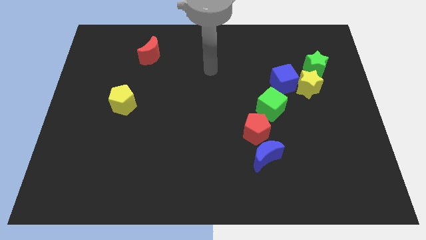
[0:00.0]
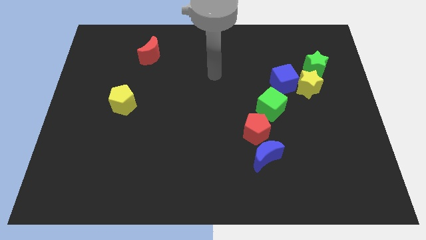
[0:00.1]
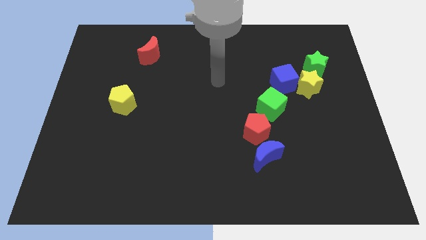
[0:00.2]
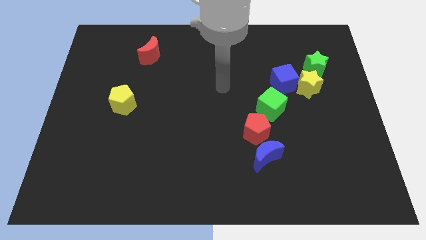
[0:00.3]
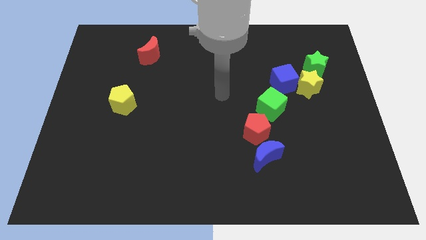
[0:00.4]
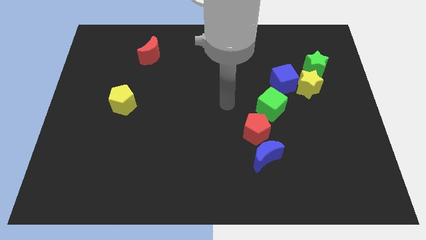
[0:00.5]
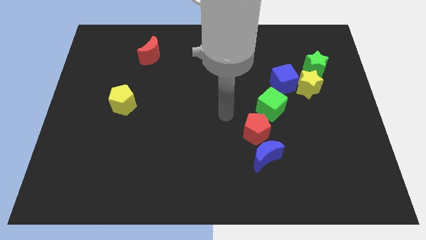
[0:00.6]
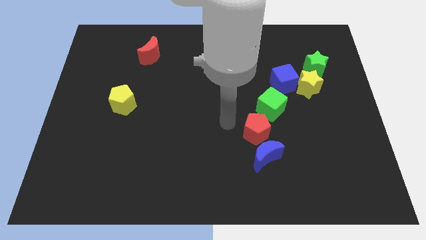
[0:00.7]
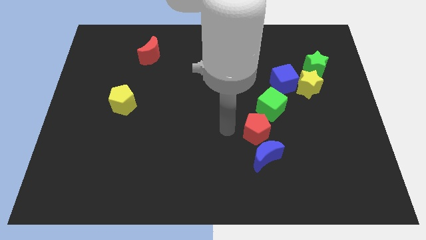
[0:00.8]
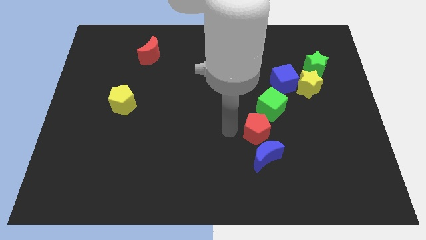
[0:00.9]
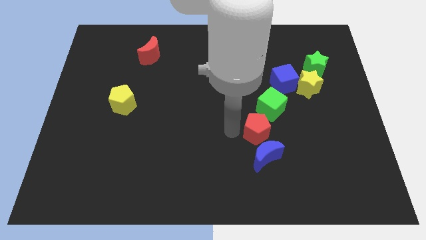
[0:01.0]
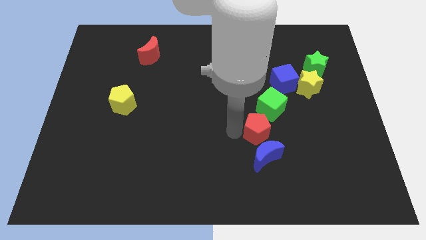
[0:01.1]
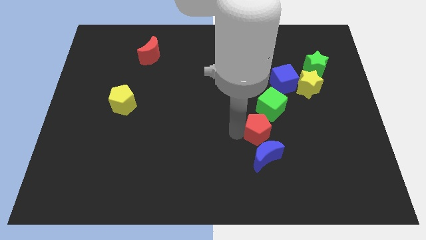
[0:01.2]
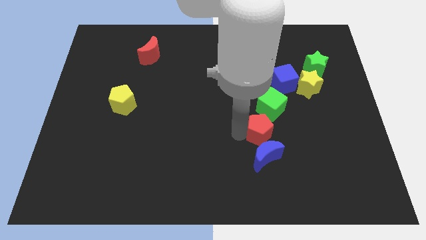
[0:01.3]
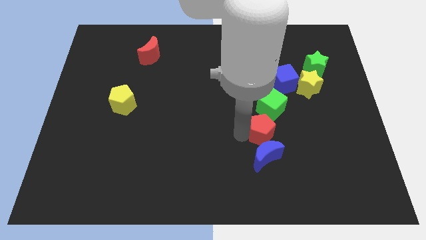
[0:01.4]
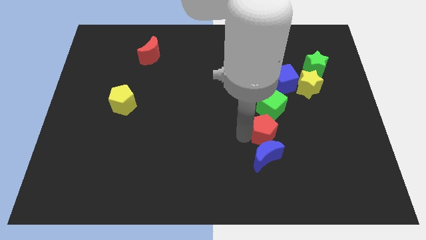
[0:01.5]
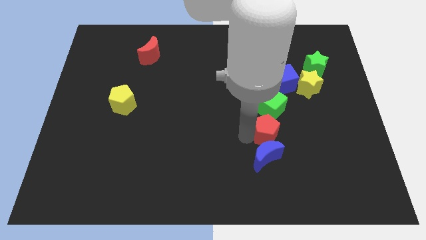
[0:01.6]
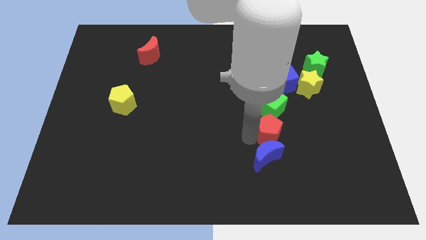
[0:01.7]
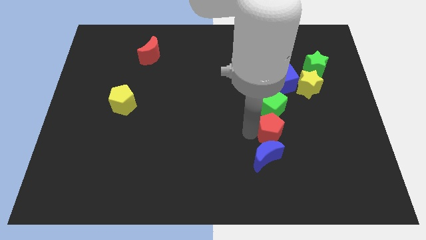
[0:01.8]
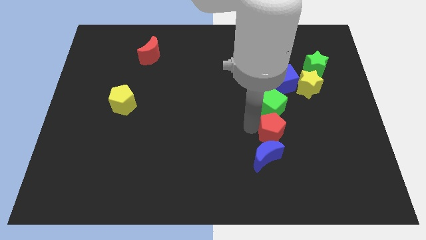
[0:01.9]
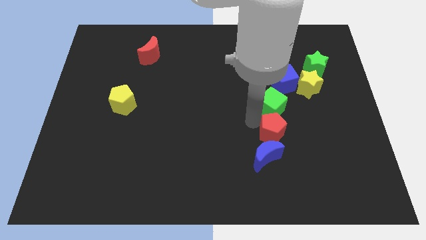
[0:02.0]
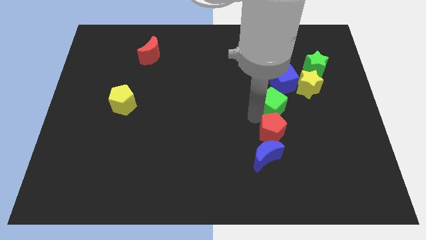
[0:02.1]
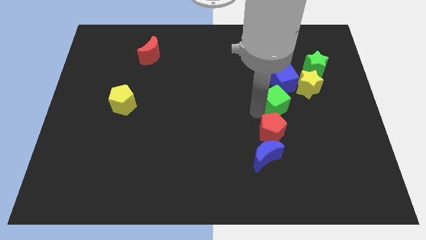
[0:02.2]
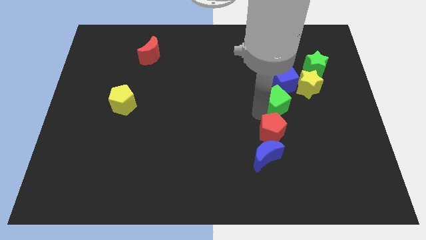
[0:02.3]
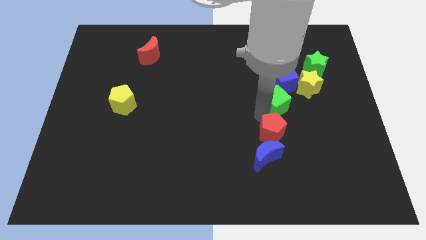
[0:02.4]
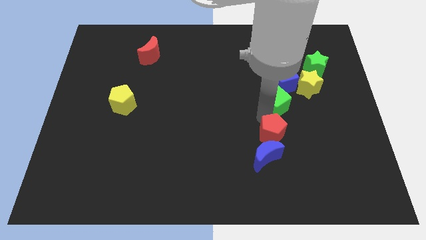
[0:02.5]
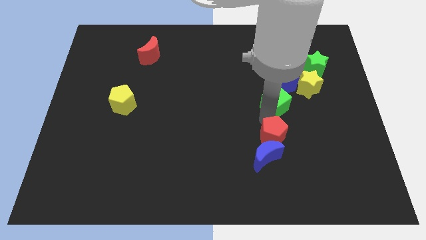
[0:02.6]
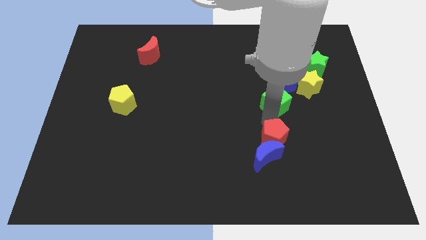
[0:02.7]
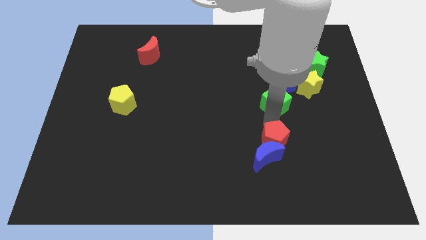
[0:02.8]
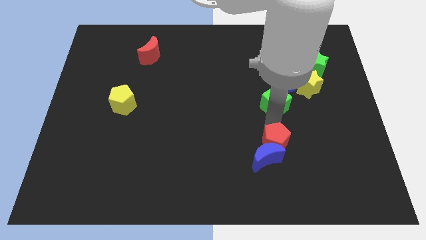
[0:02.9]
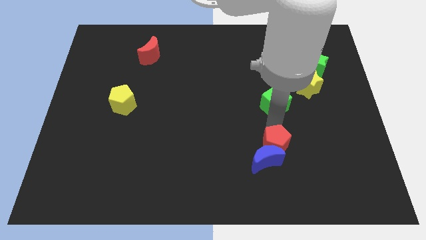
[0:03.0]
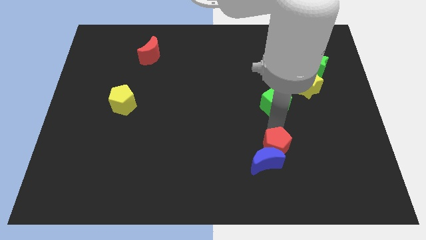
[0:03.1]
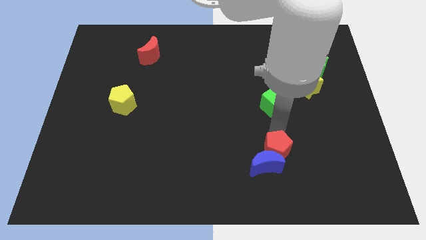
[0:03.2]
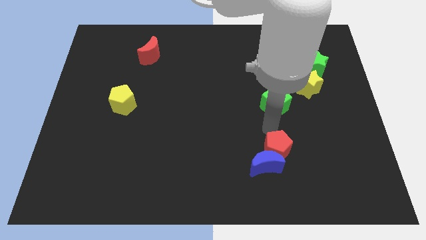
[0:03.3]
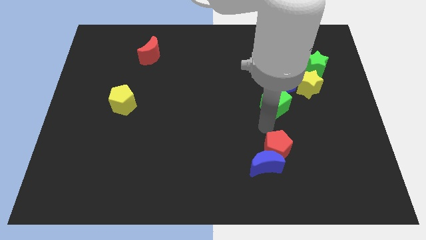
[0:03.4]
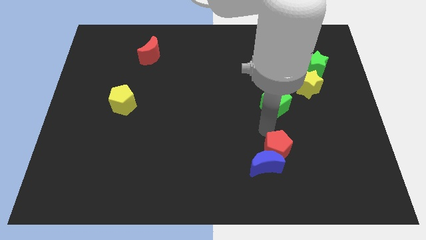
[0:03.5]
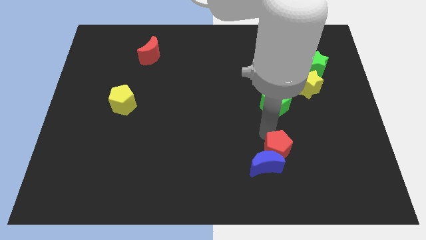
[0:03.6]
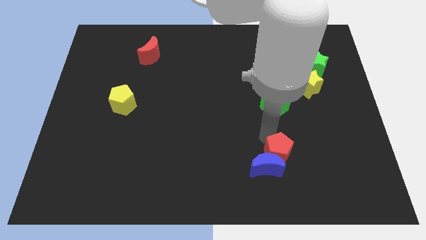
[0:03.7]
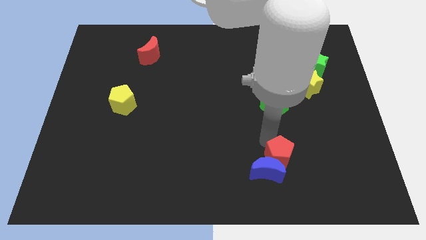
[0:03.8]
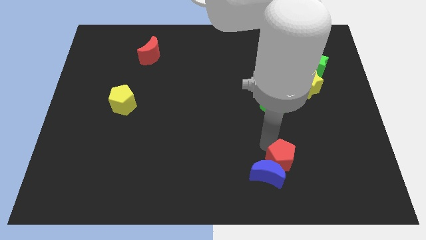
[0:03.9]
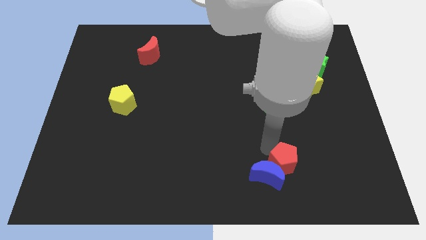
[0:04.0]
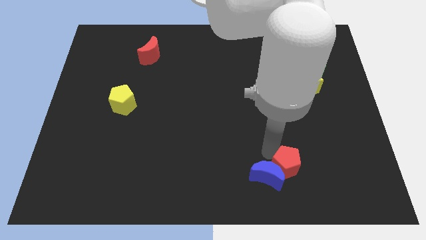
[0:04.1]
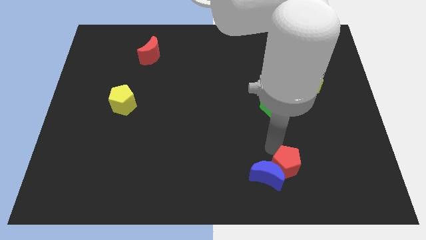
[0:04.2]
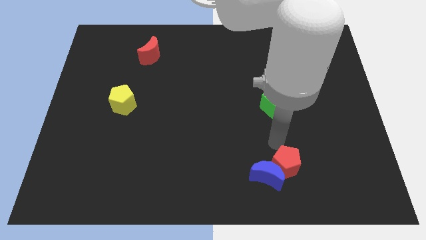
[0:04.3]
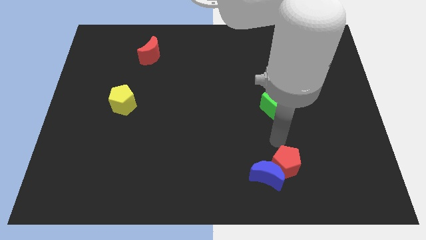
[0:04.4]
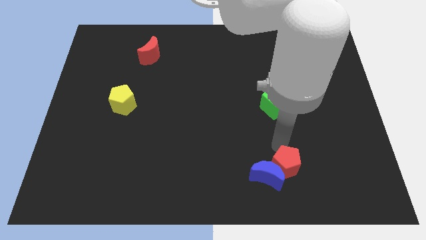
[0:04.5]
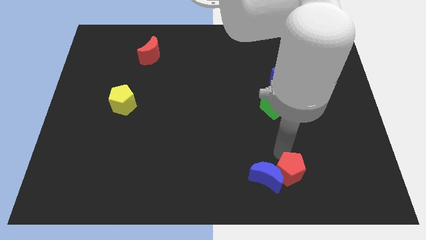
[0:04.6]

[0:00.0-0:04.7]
push the red pentagon diagonally down and to the right of the blue moon

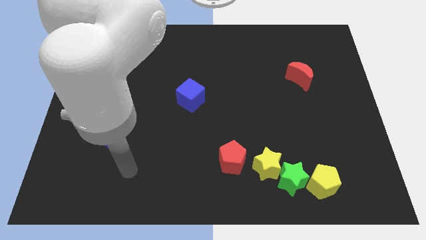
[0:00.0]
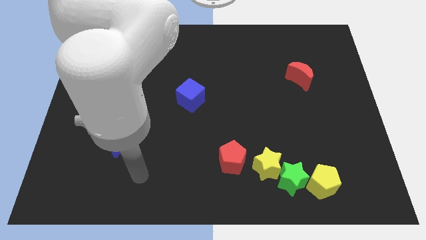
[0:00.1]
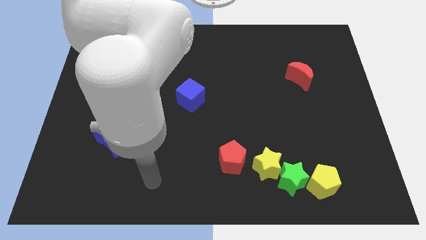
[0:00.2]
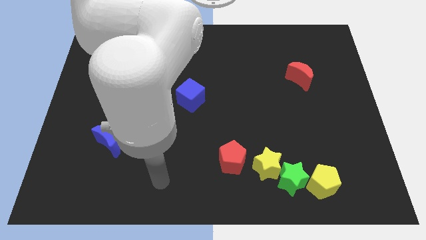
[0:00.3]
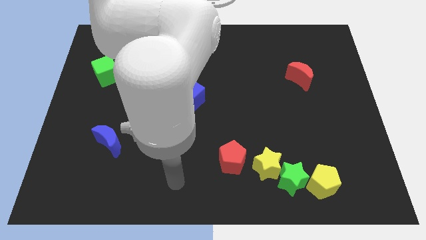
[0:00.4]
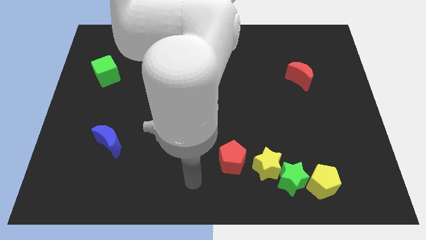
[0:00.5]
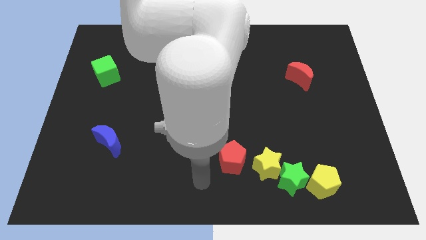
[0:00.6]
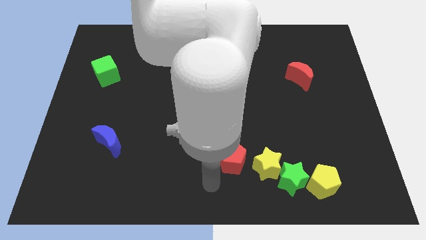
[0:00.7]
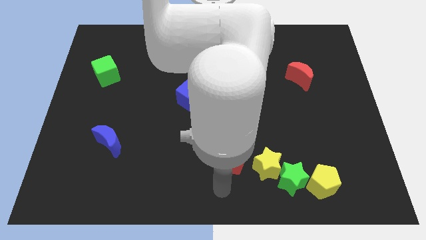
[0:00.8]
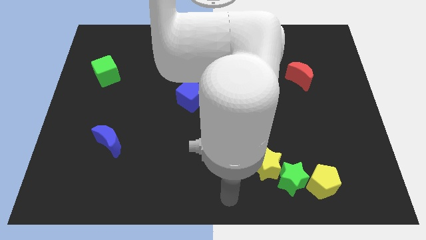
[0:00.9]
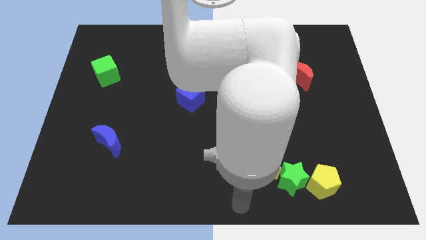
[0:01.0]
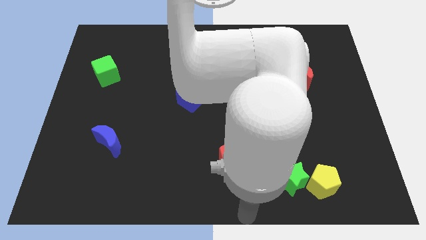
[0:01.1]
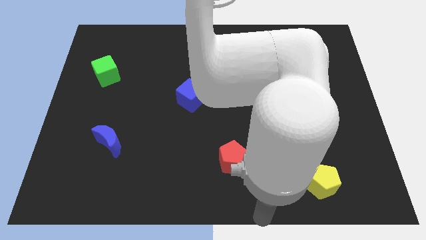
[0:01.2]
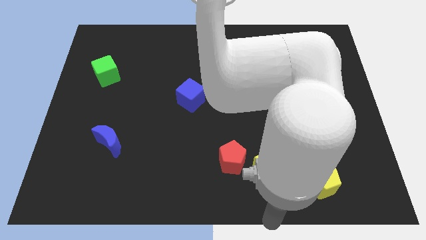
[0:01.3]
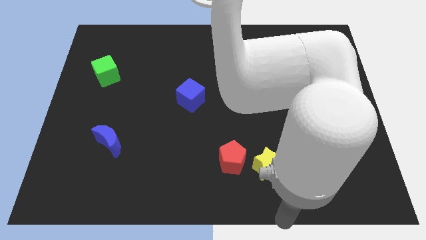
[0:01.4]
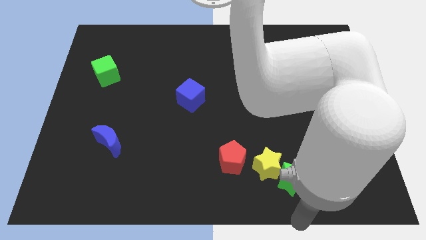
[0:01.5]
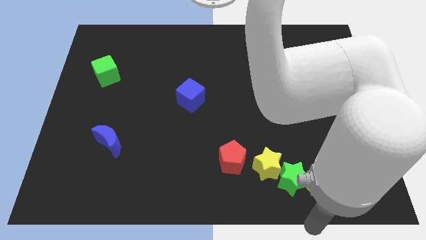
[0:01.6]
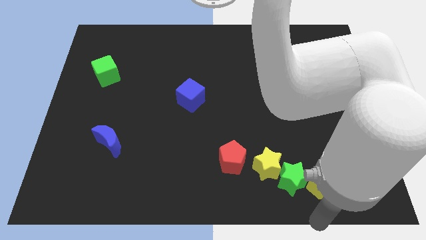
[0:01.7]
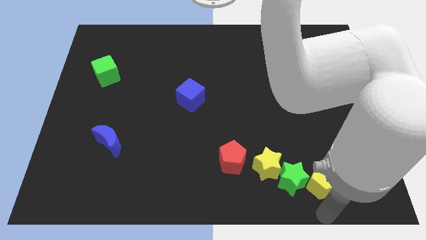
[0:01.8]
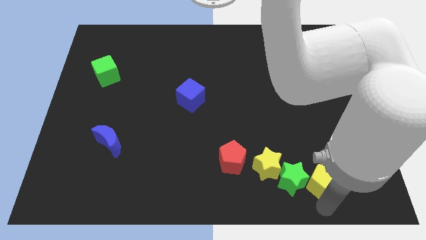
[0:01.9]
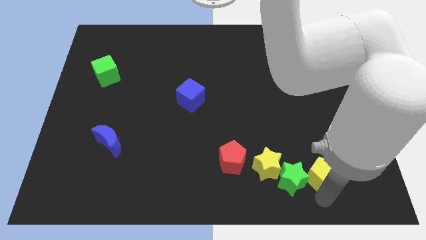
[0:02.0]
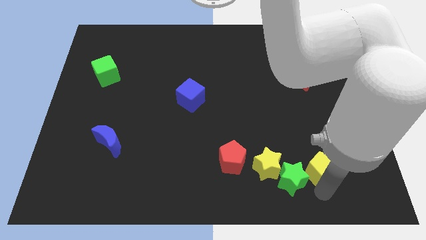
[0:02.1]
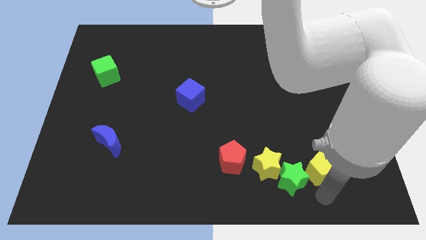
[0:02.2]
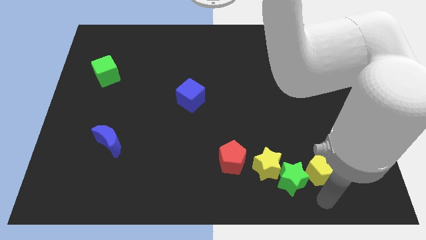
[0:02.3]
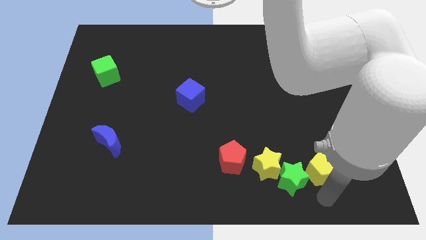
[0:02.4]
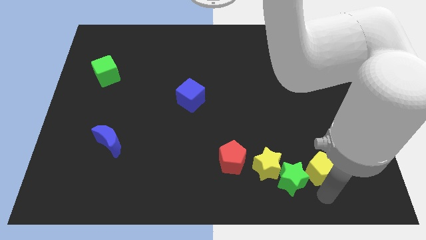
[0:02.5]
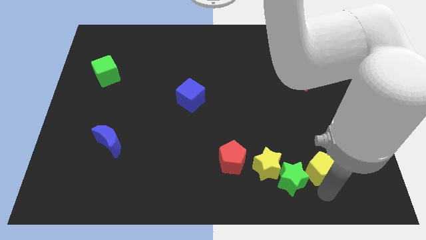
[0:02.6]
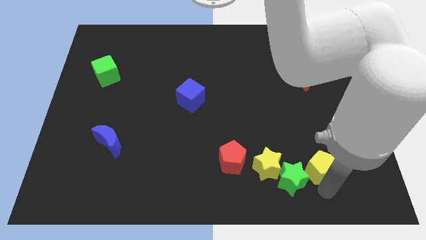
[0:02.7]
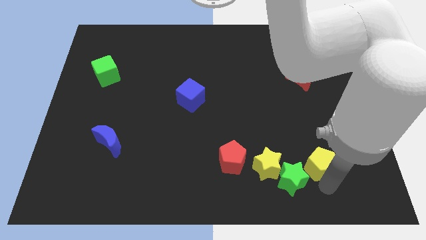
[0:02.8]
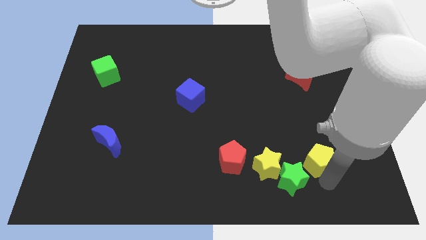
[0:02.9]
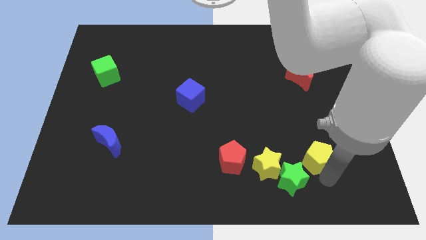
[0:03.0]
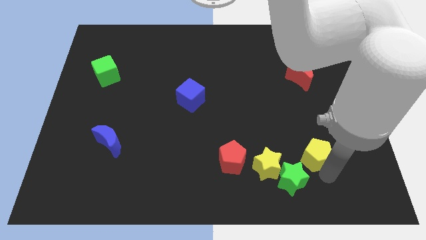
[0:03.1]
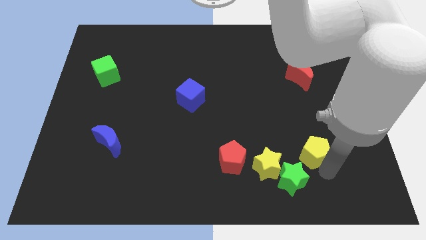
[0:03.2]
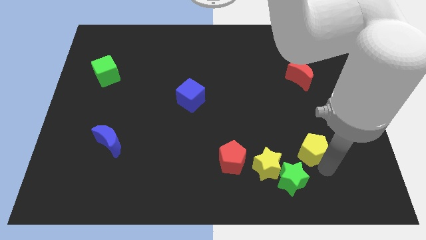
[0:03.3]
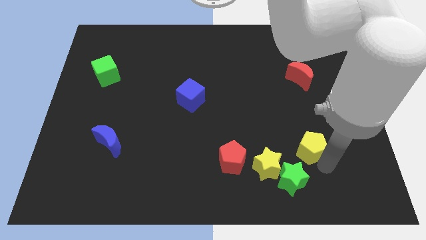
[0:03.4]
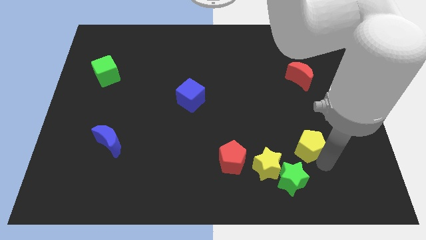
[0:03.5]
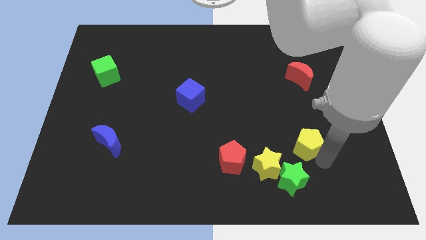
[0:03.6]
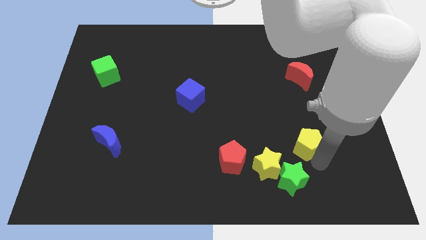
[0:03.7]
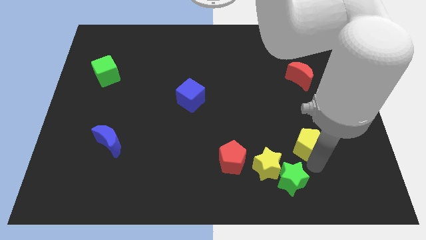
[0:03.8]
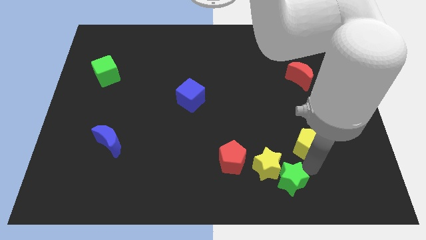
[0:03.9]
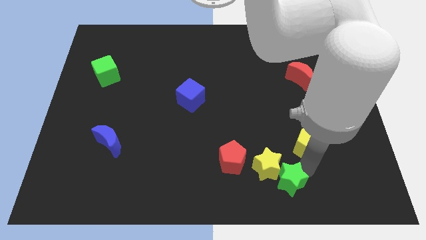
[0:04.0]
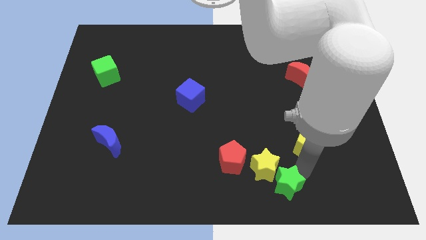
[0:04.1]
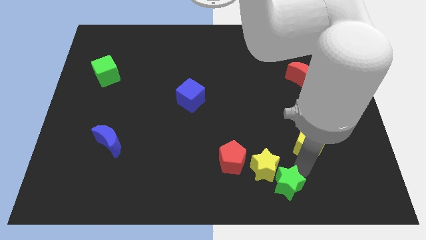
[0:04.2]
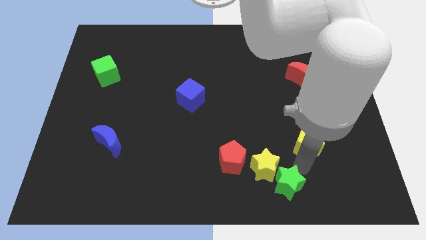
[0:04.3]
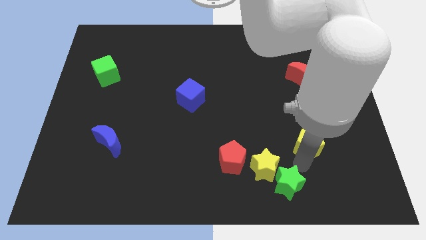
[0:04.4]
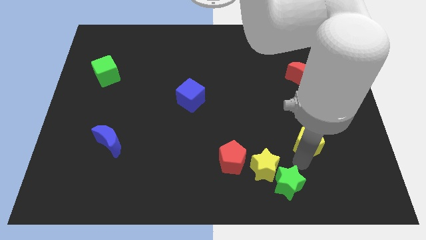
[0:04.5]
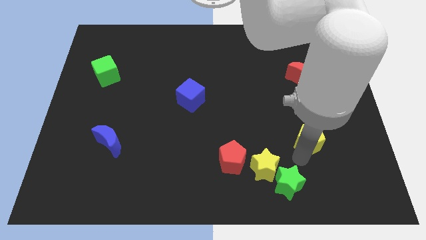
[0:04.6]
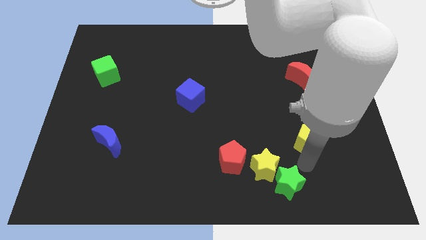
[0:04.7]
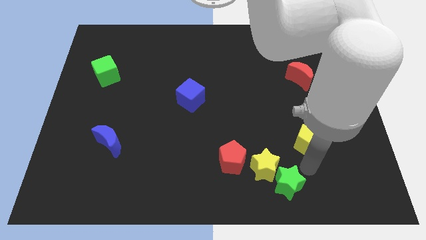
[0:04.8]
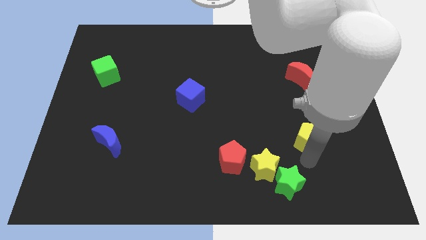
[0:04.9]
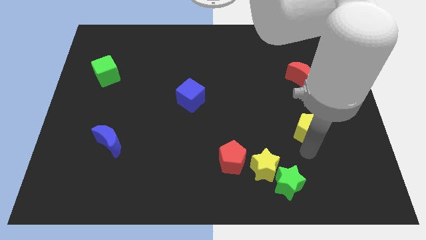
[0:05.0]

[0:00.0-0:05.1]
move the yellow pentagon to the bottom side of the red moon
